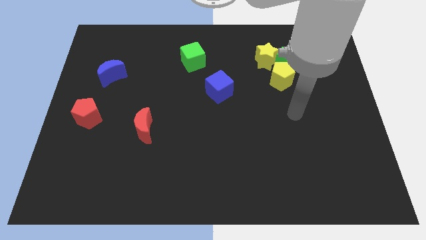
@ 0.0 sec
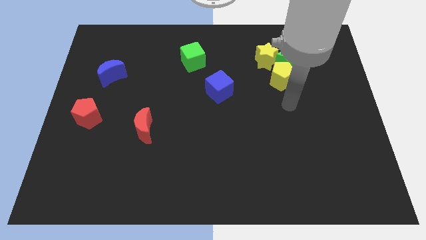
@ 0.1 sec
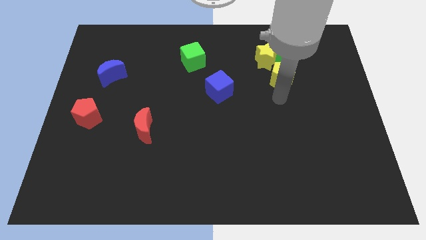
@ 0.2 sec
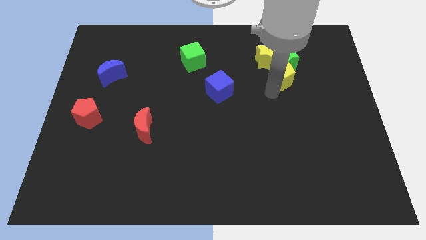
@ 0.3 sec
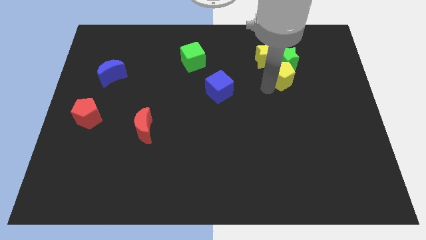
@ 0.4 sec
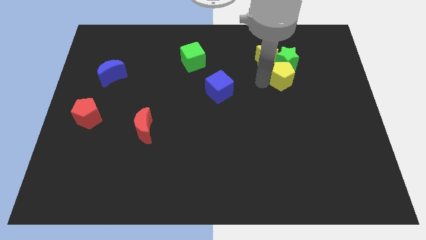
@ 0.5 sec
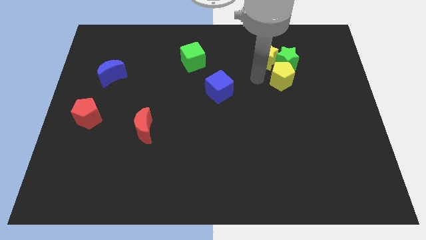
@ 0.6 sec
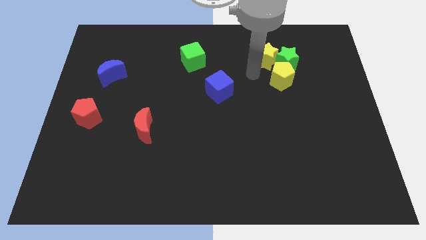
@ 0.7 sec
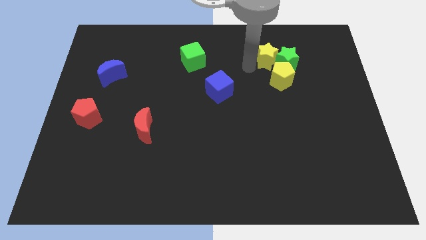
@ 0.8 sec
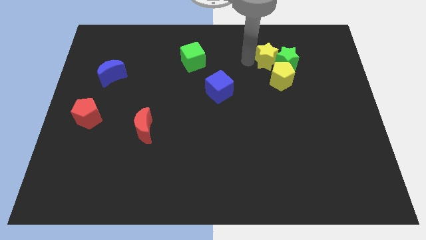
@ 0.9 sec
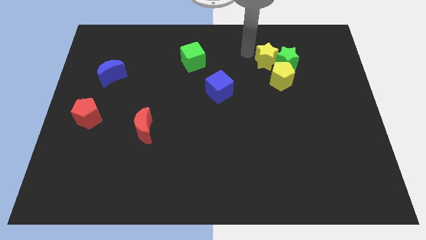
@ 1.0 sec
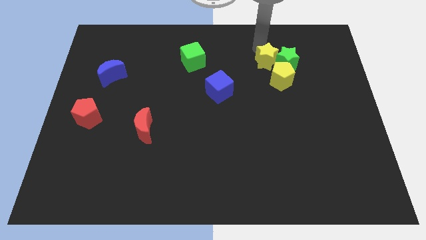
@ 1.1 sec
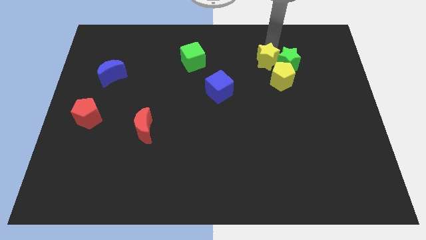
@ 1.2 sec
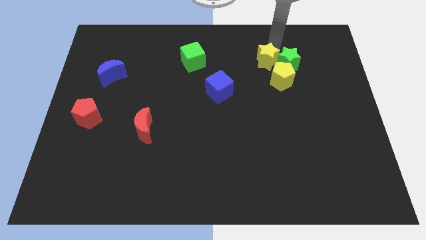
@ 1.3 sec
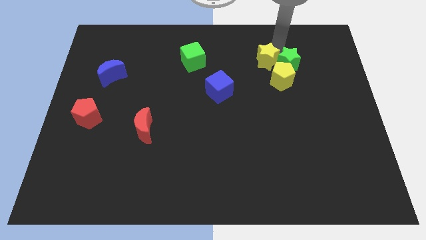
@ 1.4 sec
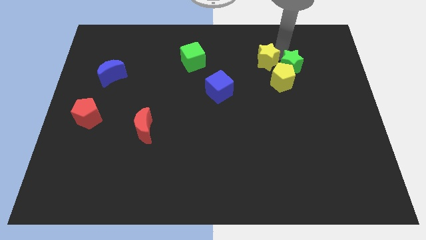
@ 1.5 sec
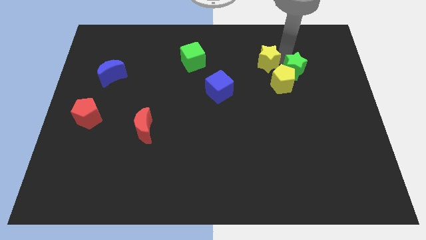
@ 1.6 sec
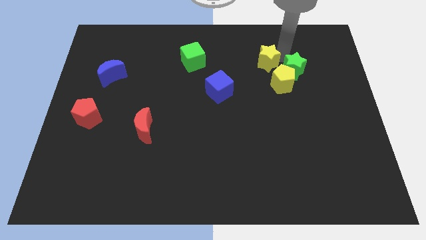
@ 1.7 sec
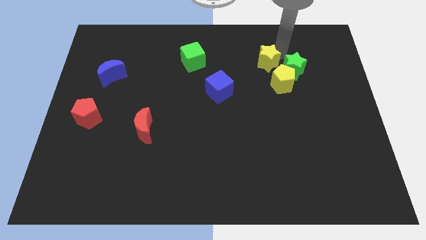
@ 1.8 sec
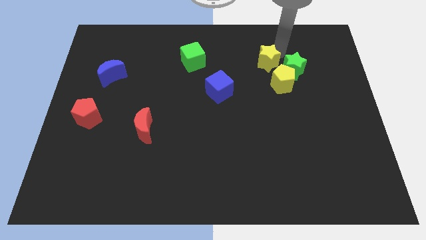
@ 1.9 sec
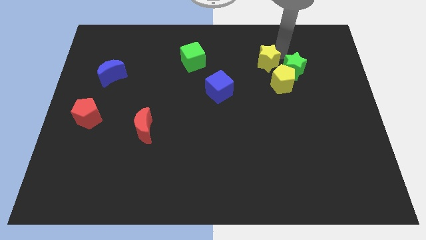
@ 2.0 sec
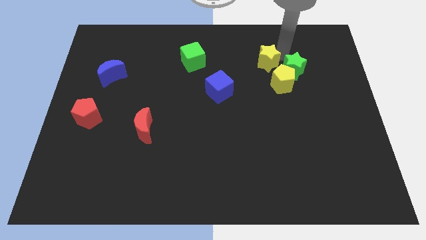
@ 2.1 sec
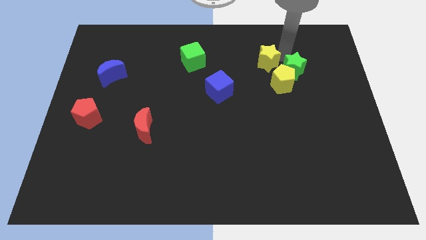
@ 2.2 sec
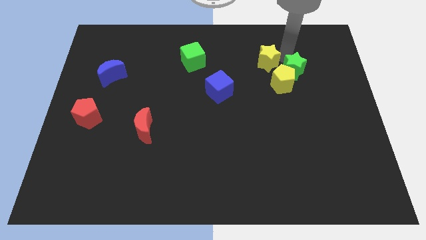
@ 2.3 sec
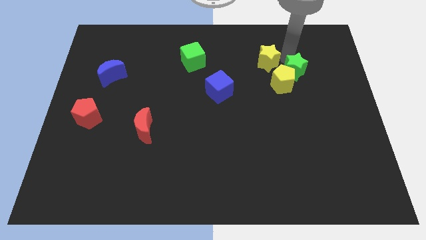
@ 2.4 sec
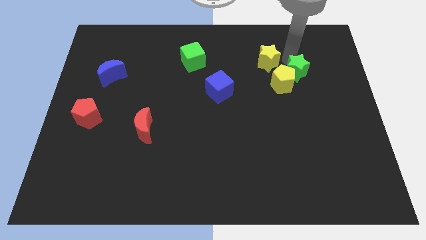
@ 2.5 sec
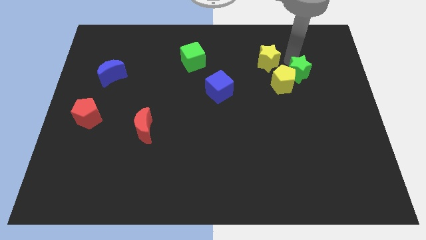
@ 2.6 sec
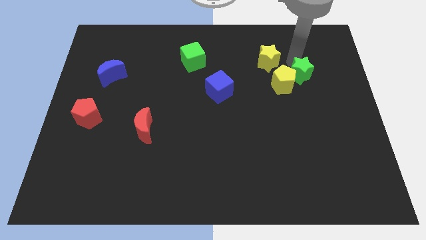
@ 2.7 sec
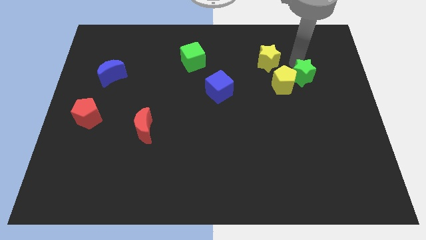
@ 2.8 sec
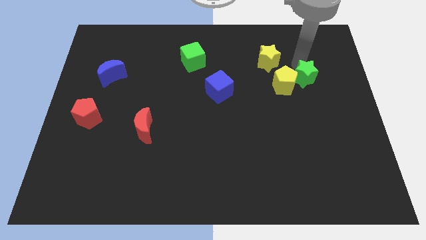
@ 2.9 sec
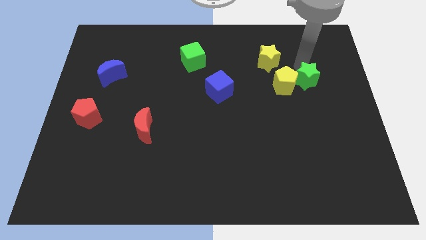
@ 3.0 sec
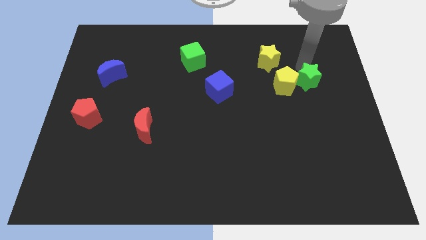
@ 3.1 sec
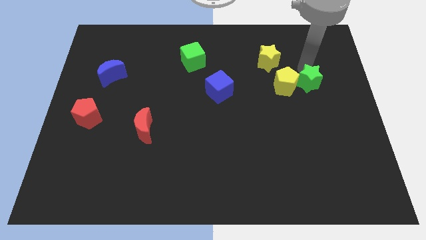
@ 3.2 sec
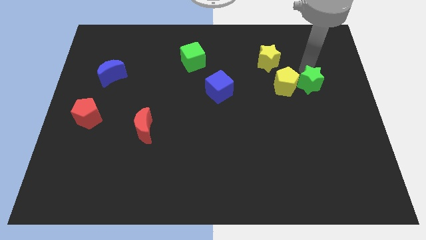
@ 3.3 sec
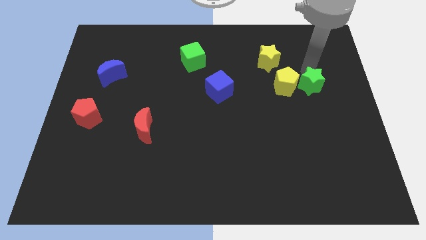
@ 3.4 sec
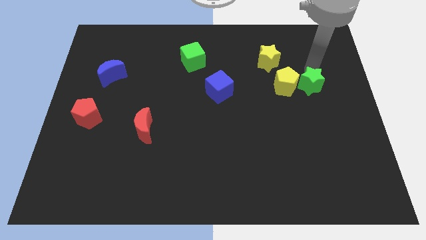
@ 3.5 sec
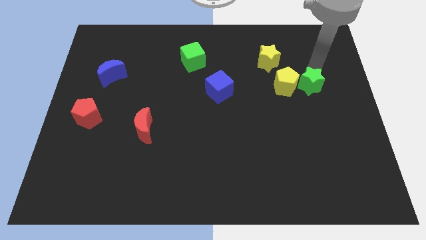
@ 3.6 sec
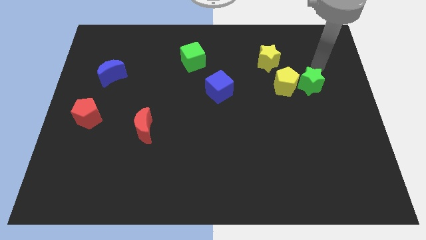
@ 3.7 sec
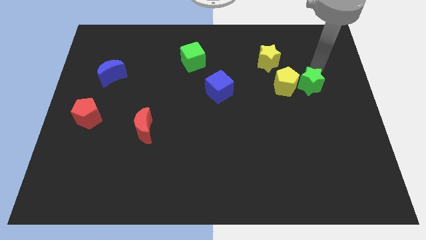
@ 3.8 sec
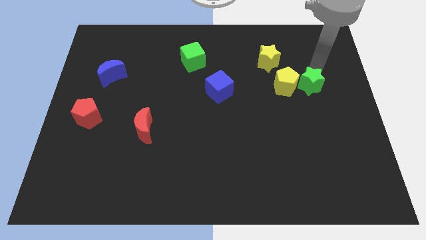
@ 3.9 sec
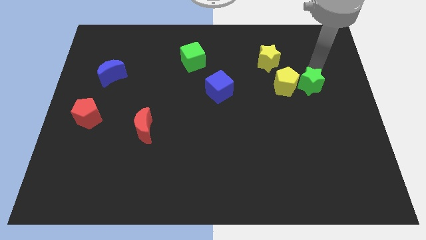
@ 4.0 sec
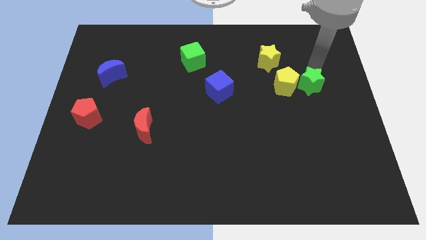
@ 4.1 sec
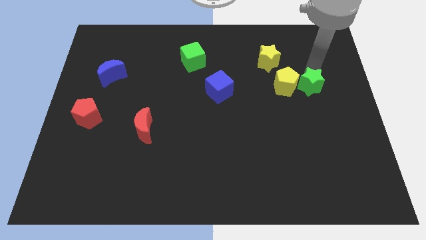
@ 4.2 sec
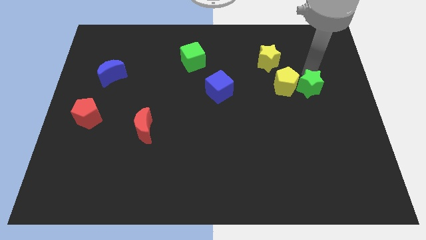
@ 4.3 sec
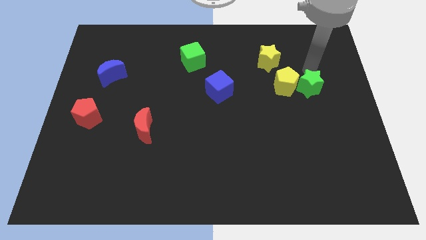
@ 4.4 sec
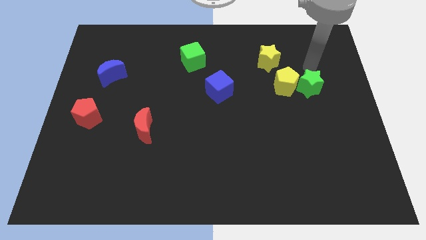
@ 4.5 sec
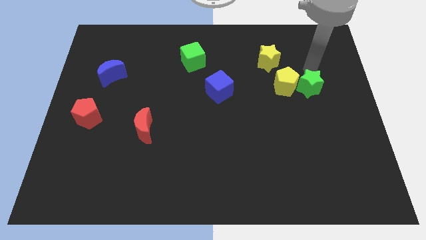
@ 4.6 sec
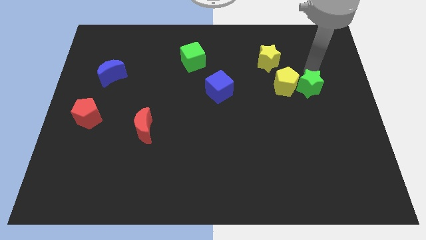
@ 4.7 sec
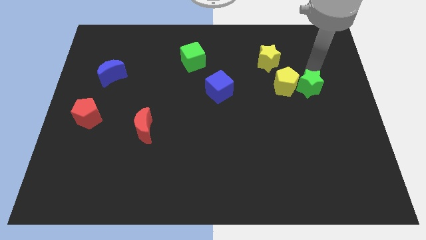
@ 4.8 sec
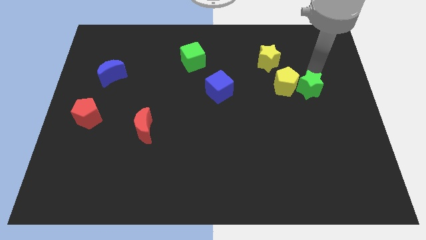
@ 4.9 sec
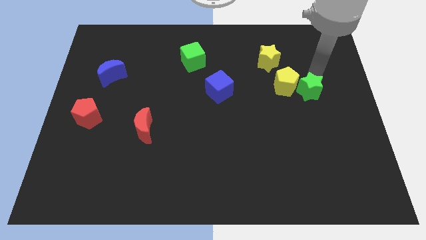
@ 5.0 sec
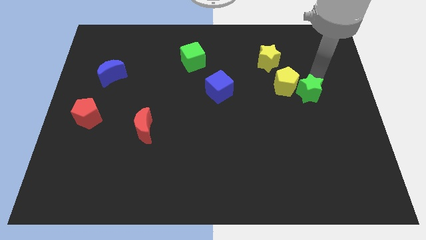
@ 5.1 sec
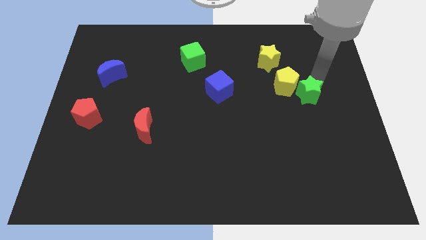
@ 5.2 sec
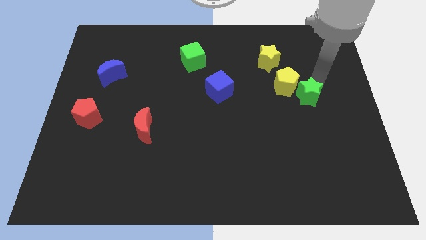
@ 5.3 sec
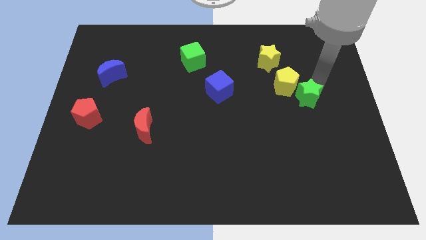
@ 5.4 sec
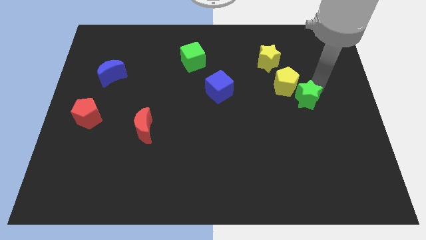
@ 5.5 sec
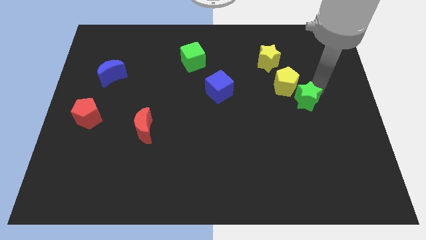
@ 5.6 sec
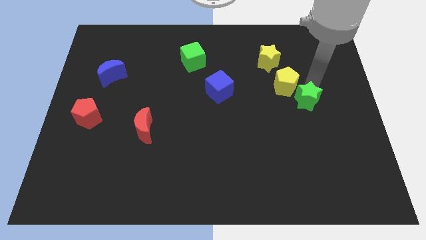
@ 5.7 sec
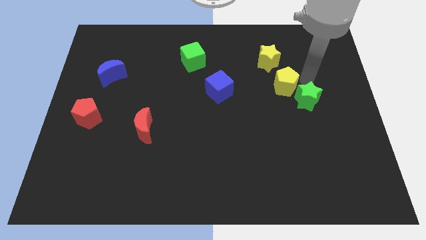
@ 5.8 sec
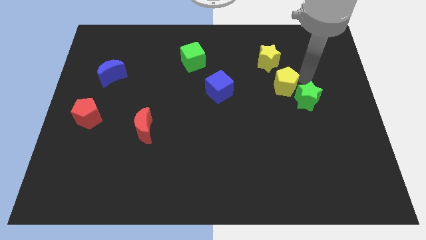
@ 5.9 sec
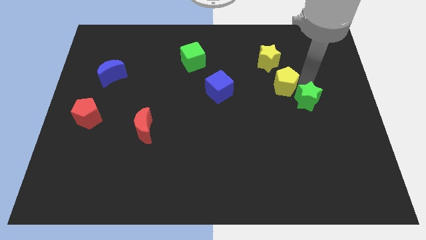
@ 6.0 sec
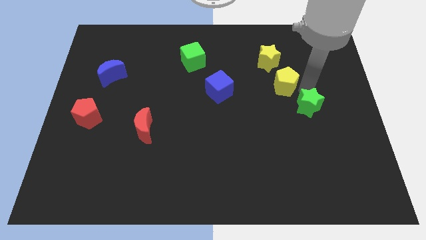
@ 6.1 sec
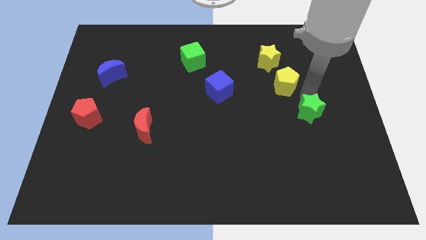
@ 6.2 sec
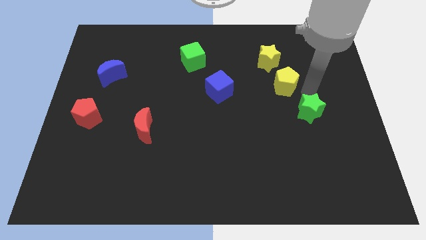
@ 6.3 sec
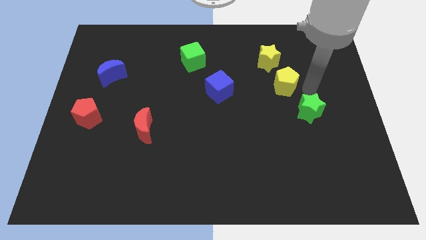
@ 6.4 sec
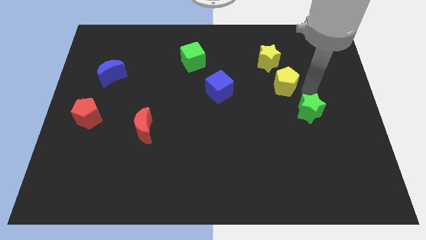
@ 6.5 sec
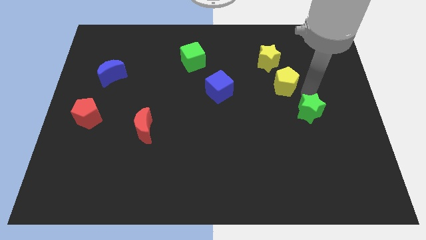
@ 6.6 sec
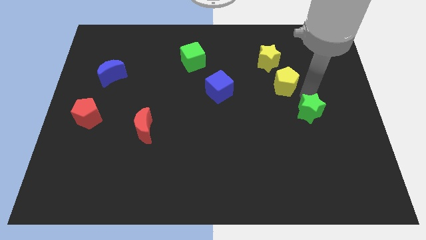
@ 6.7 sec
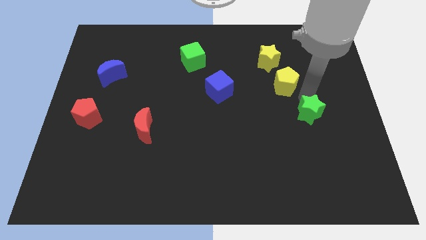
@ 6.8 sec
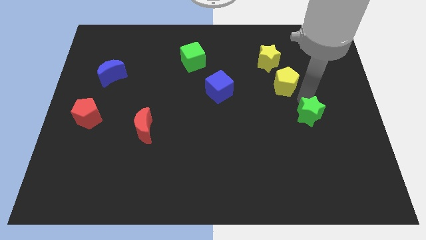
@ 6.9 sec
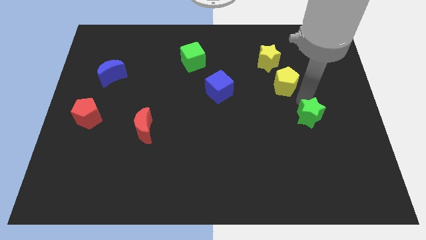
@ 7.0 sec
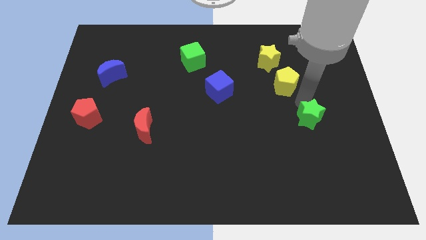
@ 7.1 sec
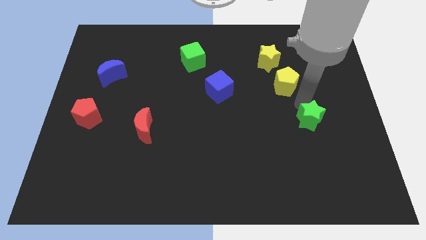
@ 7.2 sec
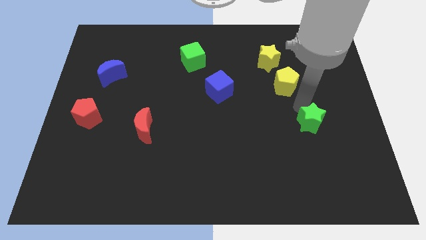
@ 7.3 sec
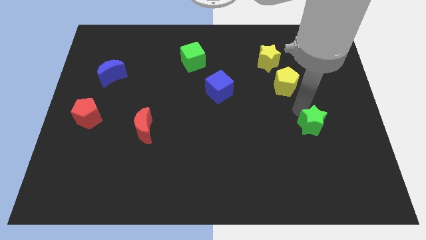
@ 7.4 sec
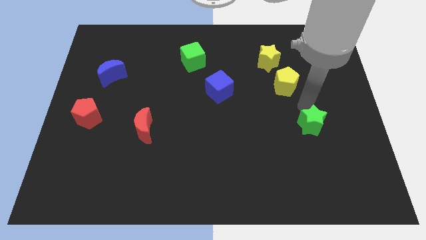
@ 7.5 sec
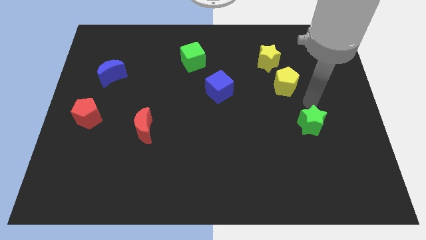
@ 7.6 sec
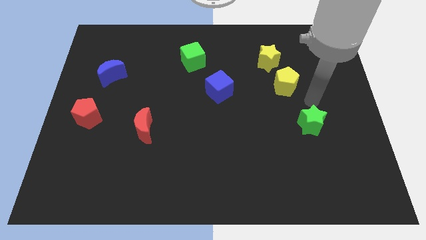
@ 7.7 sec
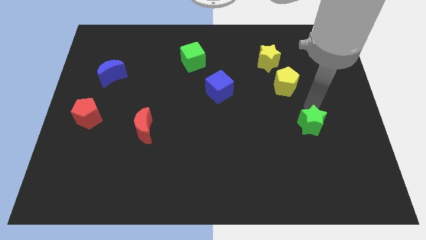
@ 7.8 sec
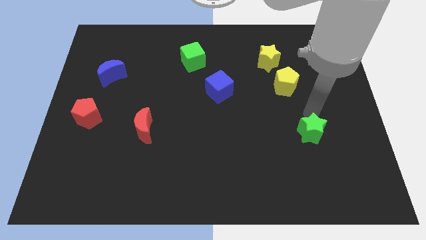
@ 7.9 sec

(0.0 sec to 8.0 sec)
push the green star down
